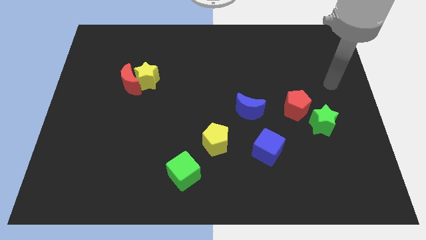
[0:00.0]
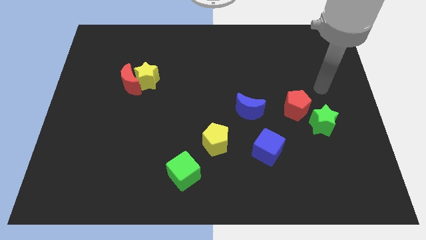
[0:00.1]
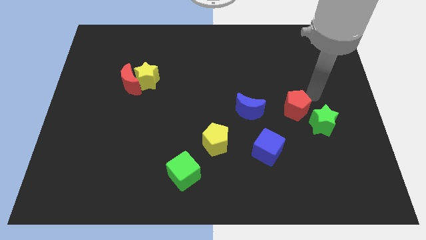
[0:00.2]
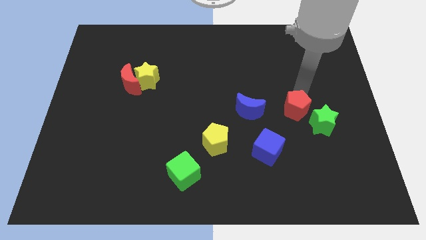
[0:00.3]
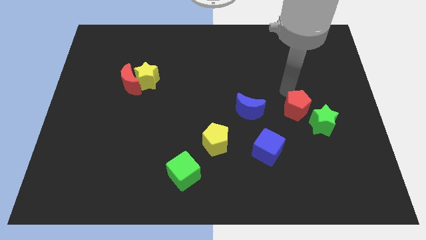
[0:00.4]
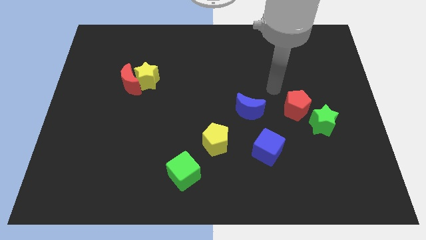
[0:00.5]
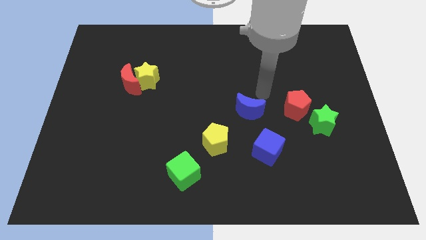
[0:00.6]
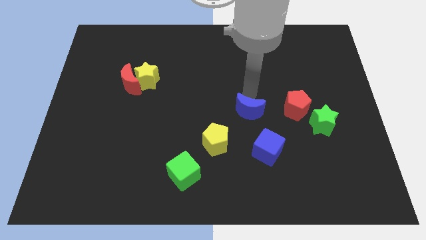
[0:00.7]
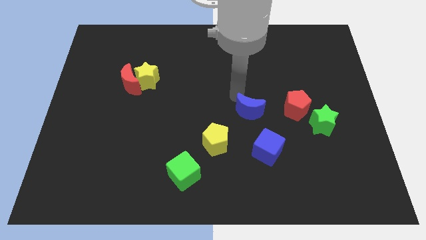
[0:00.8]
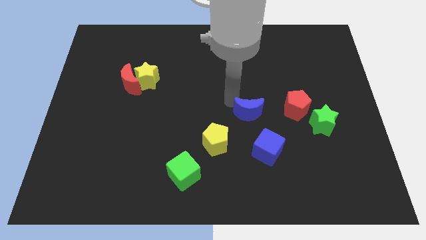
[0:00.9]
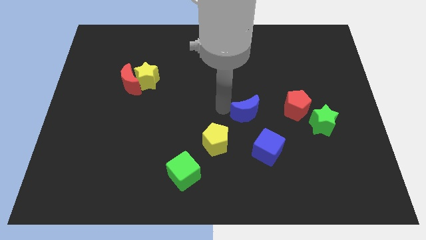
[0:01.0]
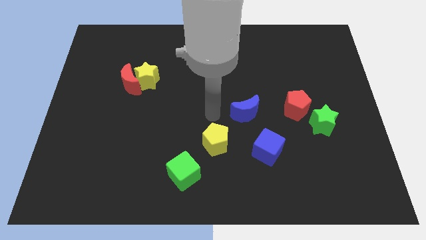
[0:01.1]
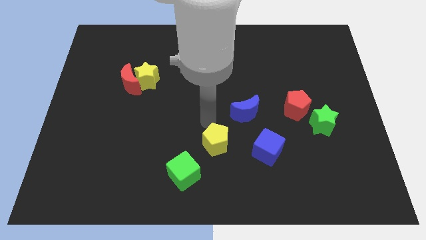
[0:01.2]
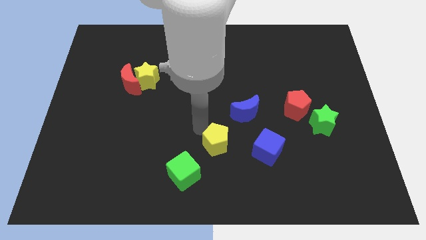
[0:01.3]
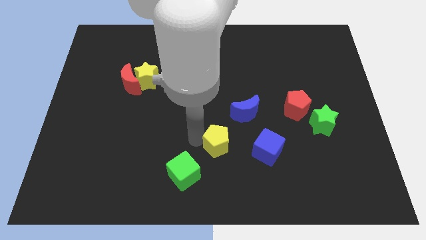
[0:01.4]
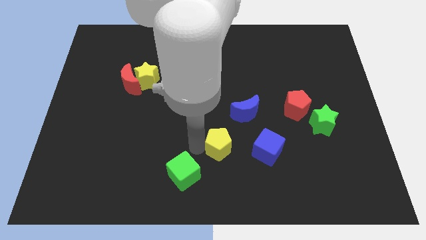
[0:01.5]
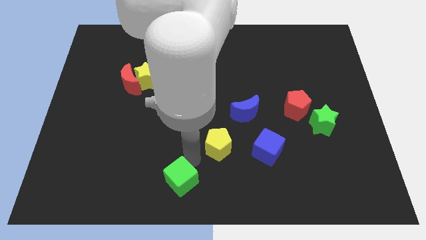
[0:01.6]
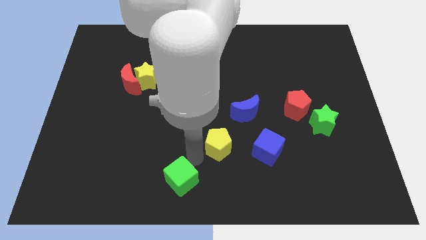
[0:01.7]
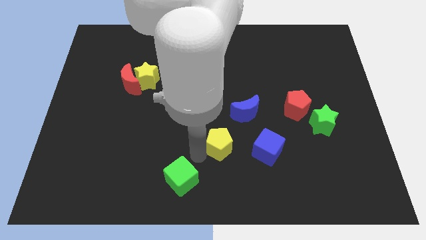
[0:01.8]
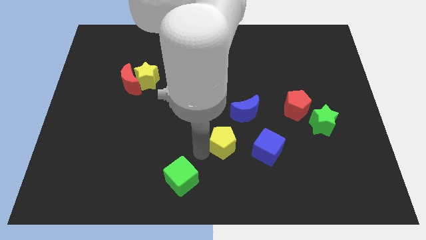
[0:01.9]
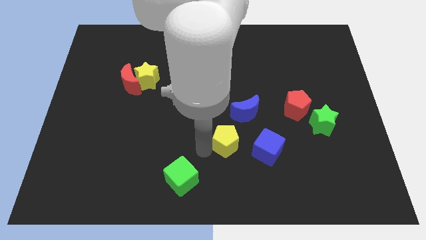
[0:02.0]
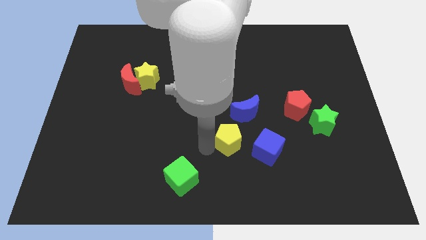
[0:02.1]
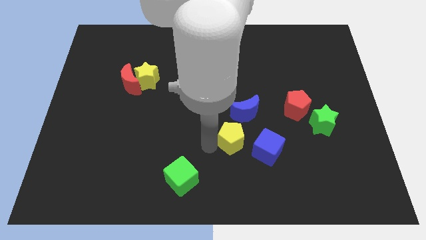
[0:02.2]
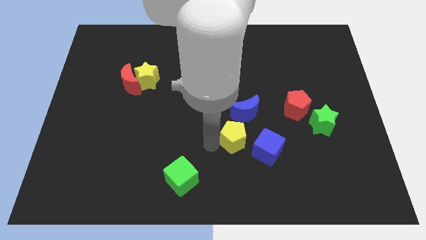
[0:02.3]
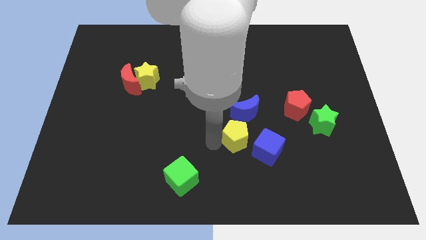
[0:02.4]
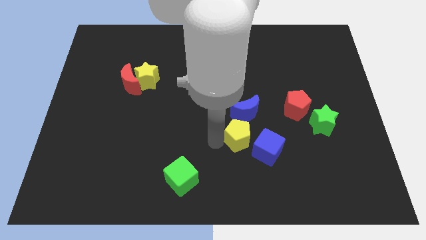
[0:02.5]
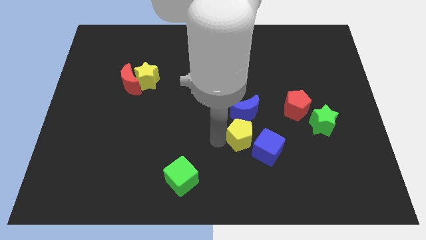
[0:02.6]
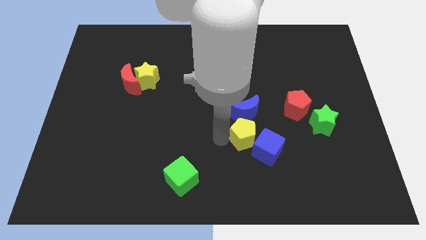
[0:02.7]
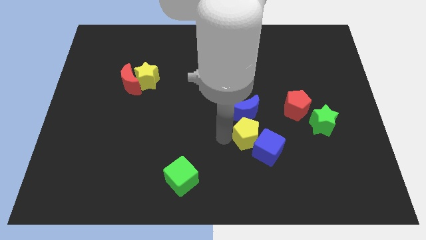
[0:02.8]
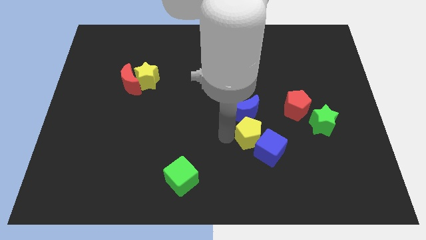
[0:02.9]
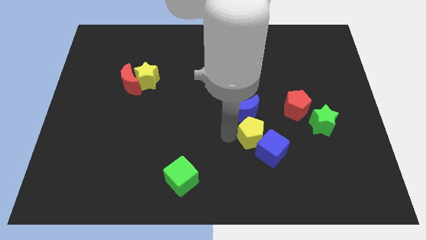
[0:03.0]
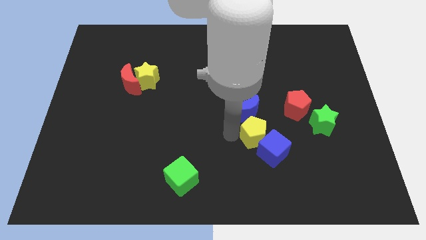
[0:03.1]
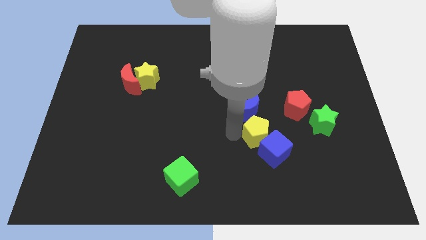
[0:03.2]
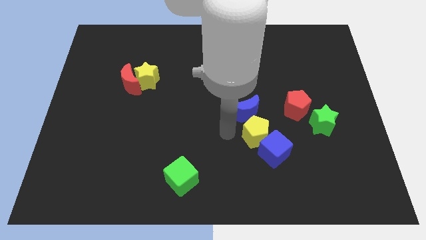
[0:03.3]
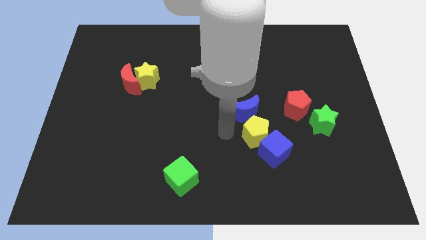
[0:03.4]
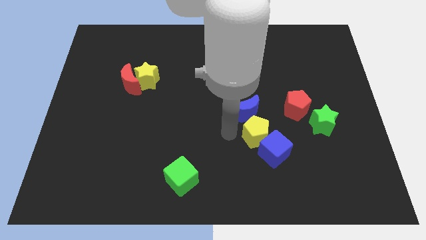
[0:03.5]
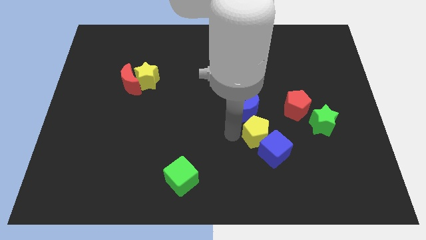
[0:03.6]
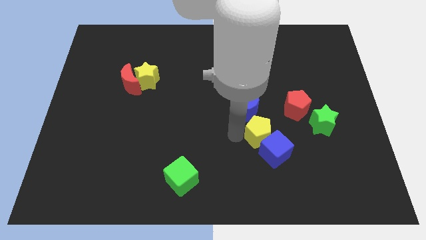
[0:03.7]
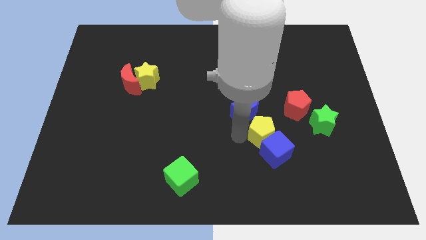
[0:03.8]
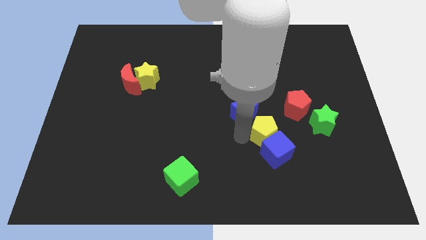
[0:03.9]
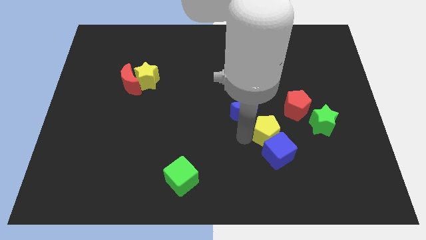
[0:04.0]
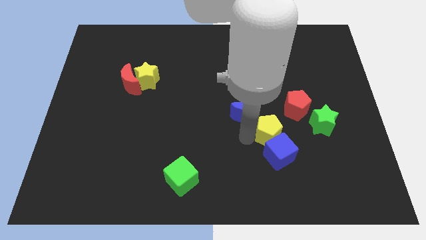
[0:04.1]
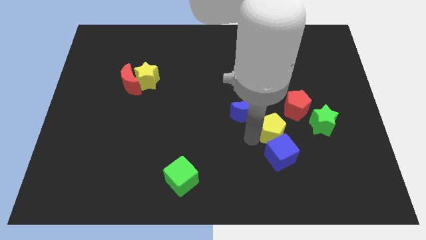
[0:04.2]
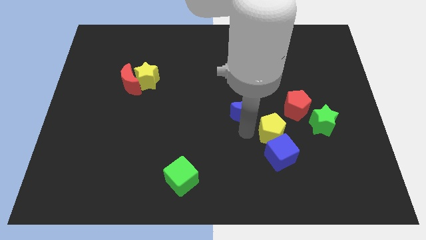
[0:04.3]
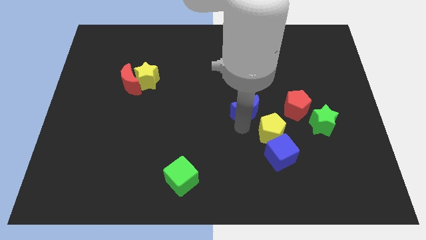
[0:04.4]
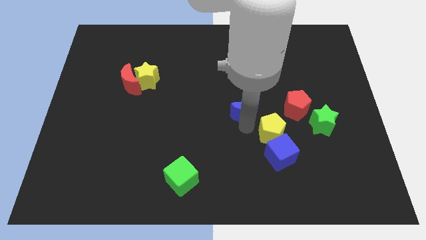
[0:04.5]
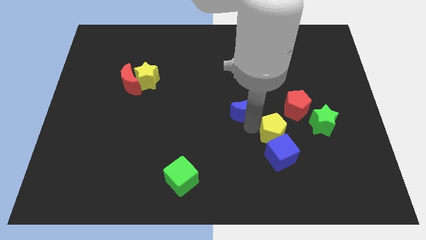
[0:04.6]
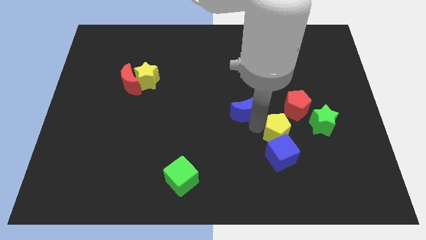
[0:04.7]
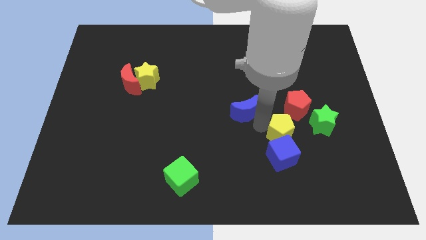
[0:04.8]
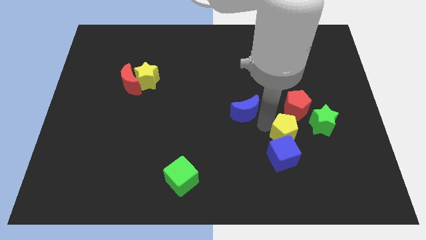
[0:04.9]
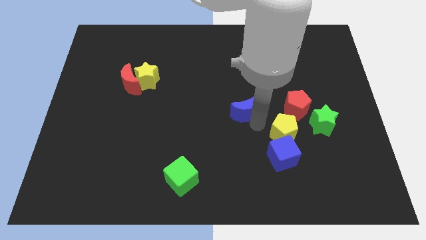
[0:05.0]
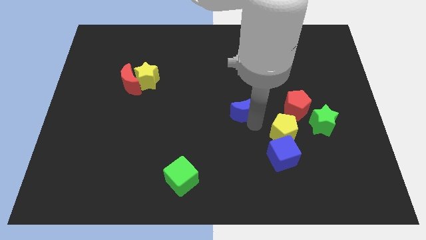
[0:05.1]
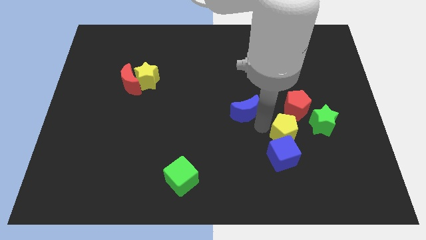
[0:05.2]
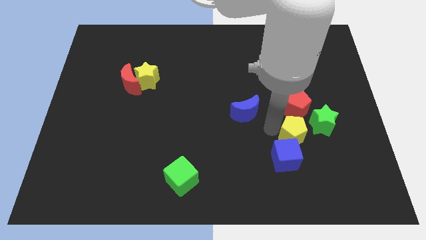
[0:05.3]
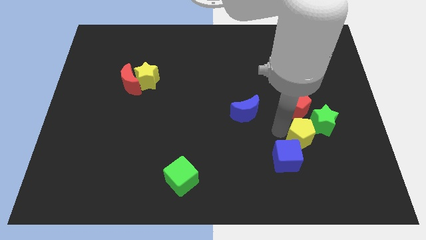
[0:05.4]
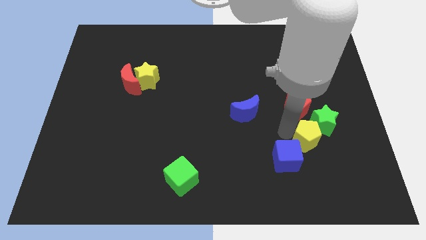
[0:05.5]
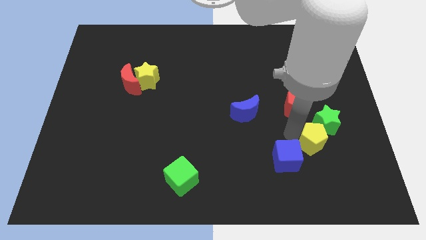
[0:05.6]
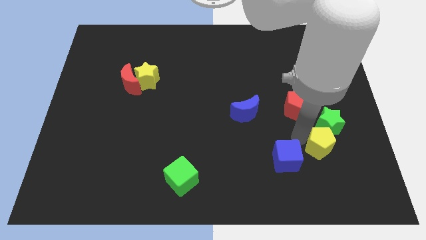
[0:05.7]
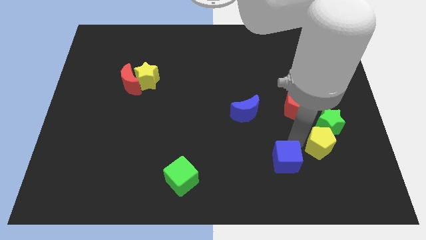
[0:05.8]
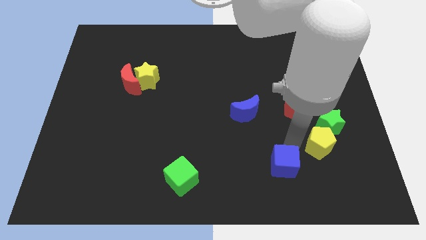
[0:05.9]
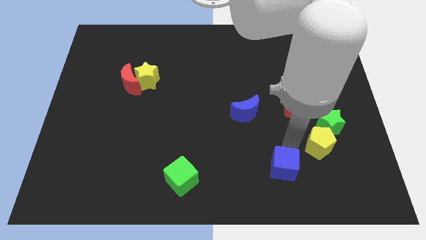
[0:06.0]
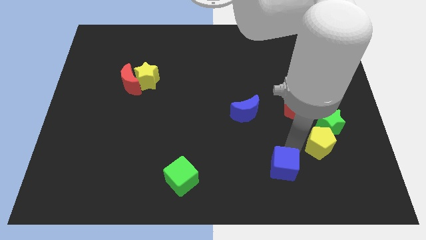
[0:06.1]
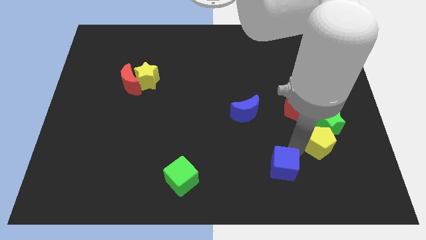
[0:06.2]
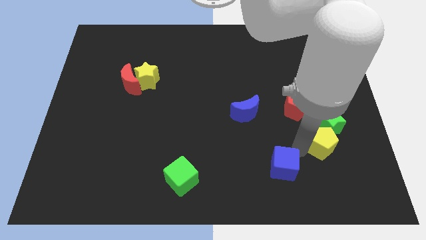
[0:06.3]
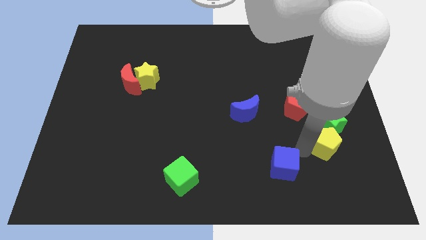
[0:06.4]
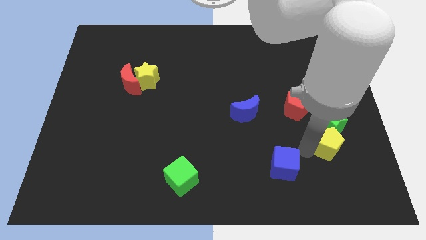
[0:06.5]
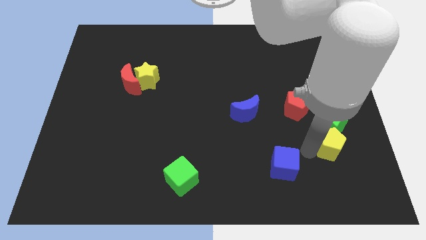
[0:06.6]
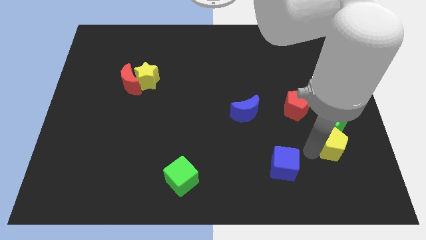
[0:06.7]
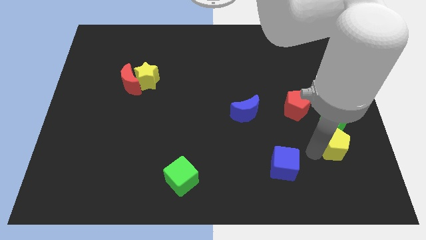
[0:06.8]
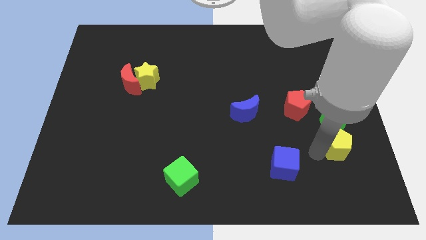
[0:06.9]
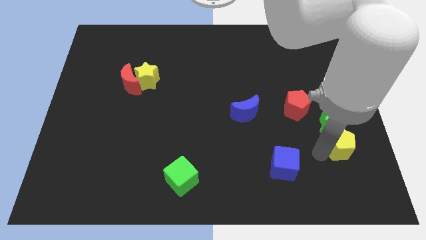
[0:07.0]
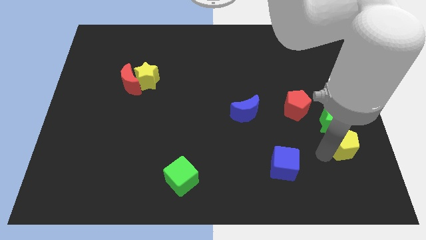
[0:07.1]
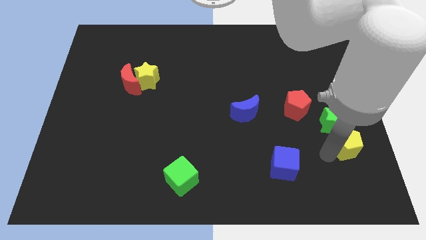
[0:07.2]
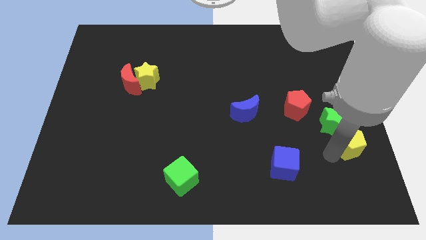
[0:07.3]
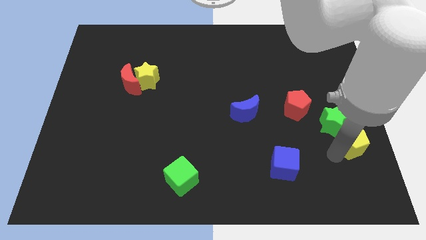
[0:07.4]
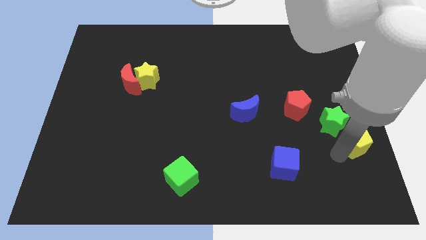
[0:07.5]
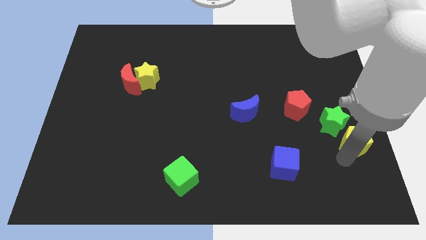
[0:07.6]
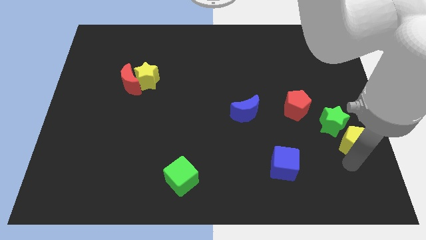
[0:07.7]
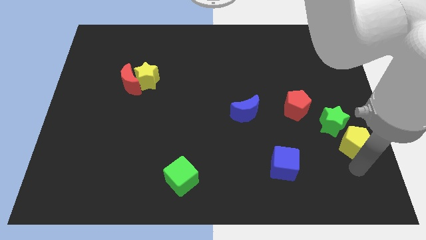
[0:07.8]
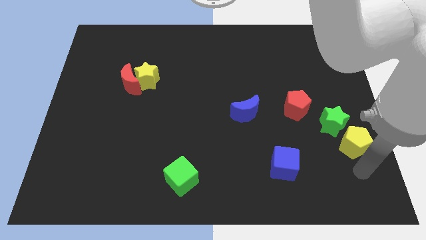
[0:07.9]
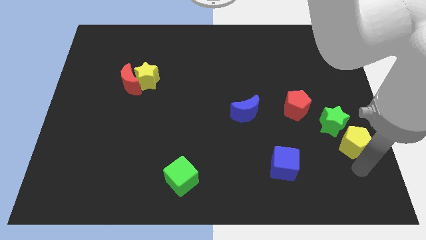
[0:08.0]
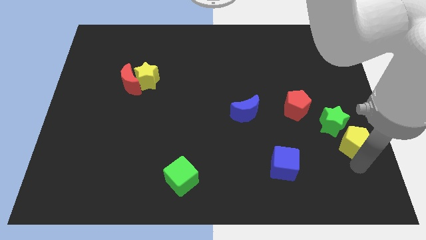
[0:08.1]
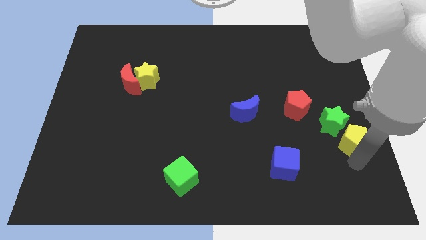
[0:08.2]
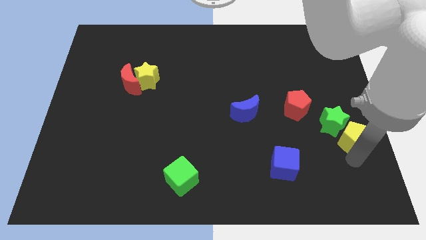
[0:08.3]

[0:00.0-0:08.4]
put the yellow pentagon to the right side of the board

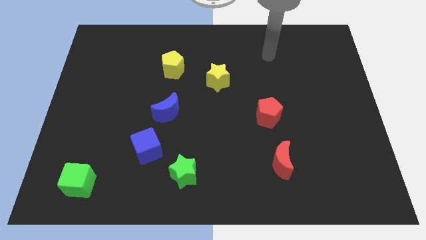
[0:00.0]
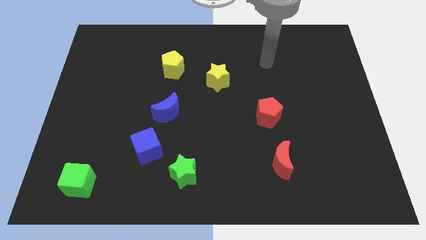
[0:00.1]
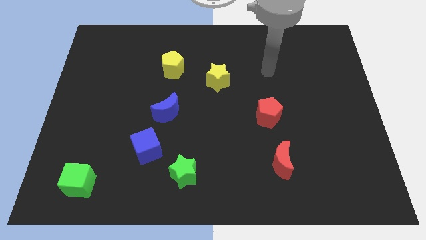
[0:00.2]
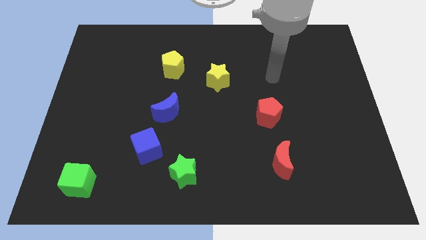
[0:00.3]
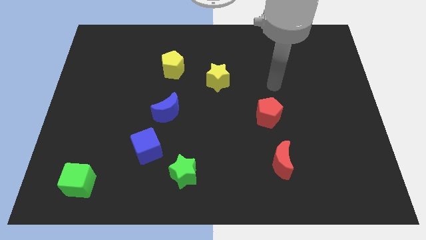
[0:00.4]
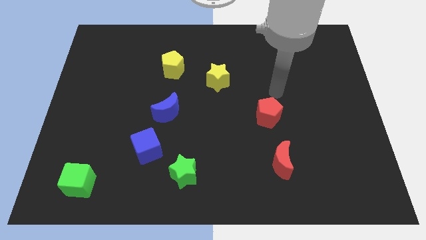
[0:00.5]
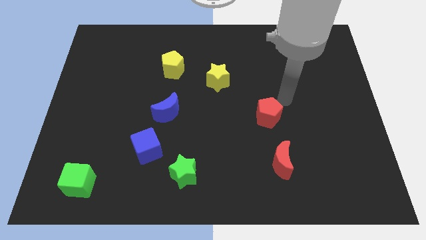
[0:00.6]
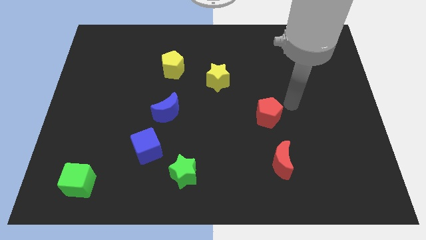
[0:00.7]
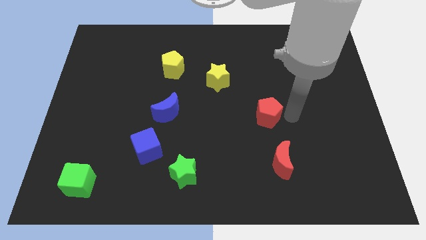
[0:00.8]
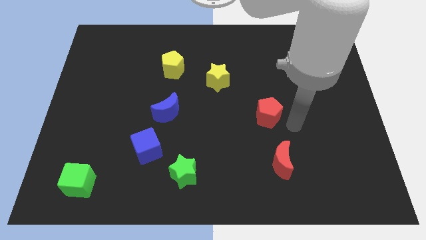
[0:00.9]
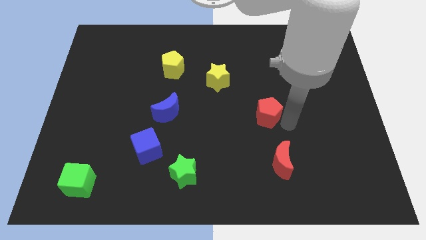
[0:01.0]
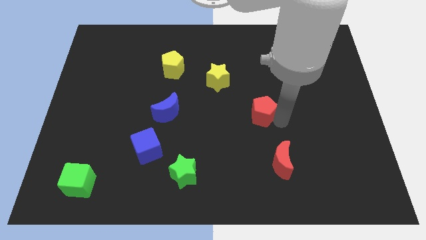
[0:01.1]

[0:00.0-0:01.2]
slide the red pentagon to the center
